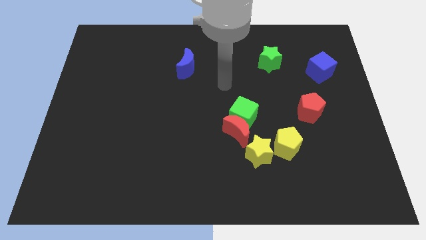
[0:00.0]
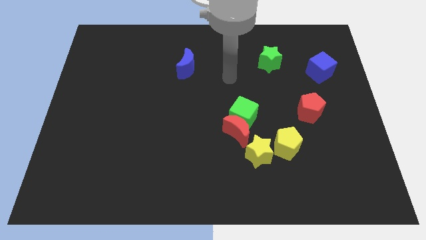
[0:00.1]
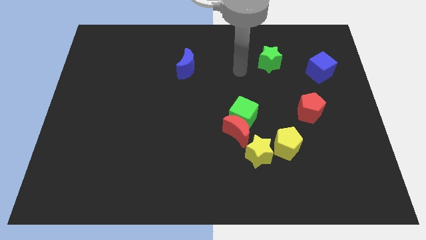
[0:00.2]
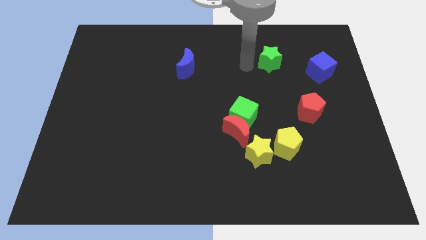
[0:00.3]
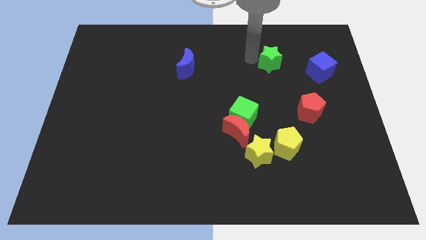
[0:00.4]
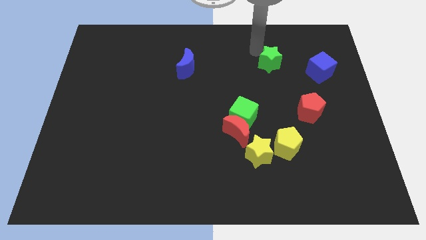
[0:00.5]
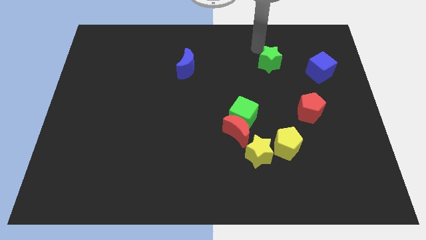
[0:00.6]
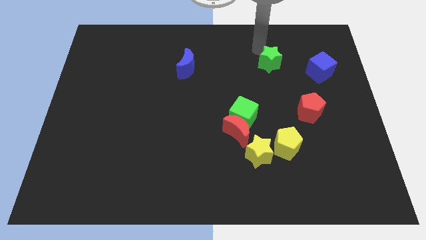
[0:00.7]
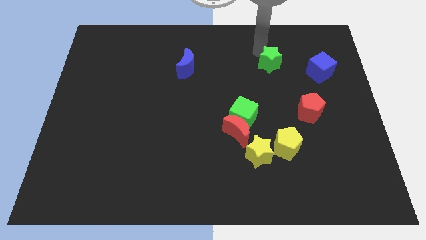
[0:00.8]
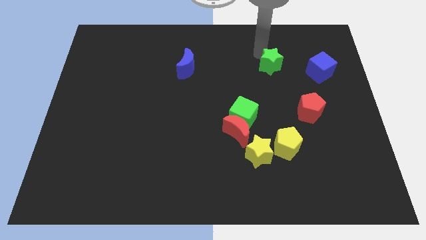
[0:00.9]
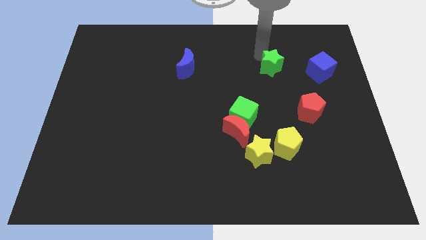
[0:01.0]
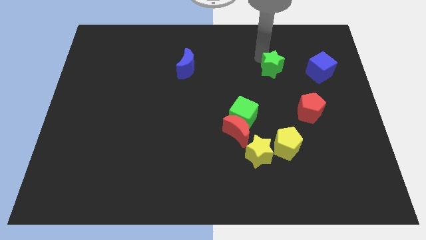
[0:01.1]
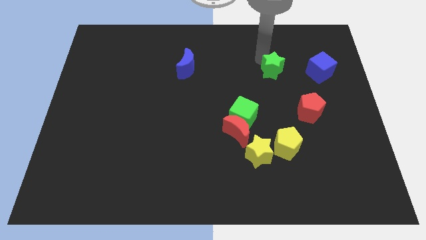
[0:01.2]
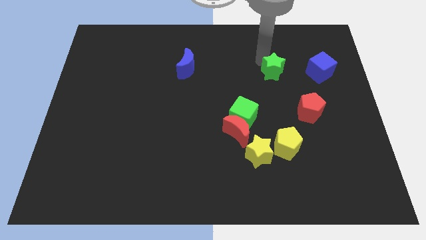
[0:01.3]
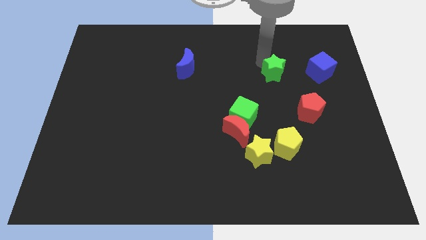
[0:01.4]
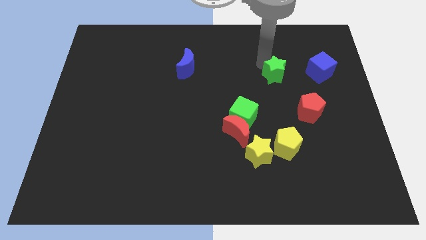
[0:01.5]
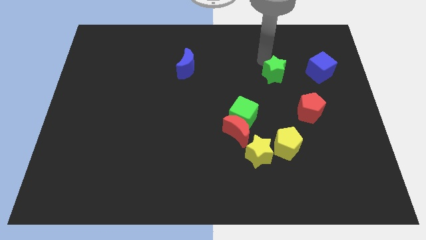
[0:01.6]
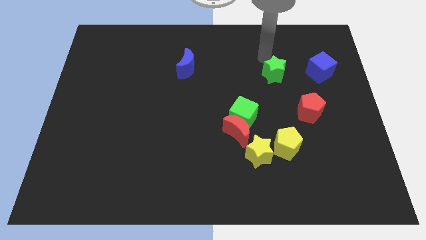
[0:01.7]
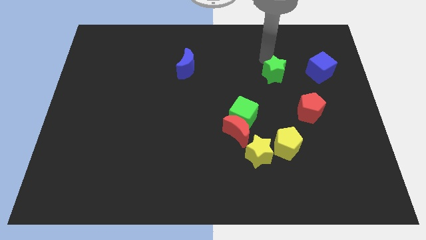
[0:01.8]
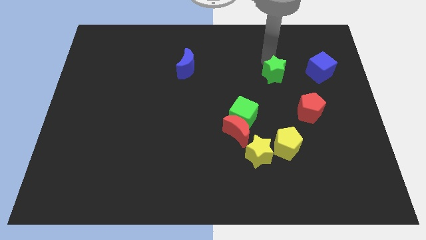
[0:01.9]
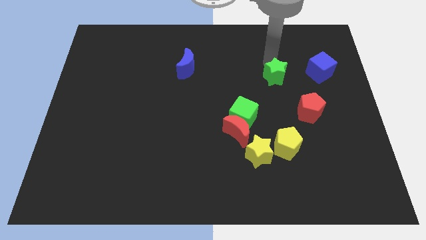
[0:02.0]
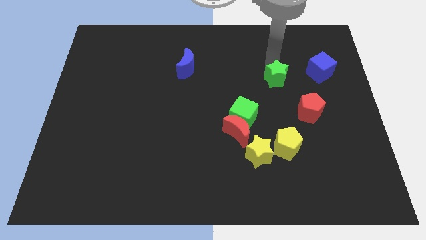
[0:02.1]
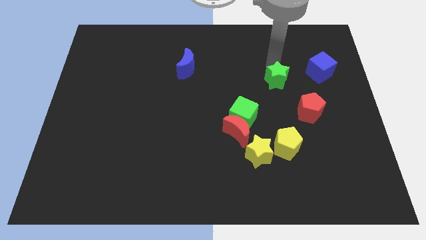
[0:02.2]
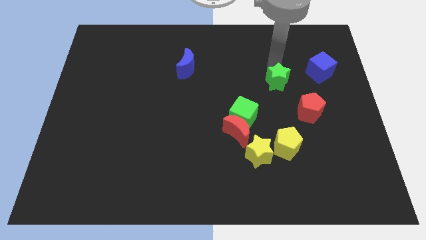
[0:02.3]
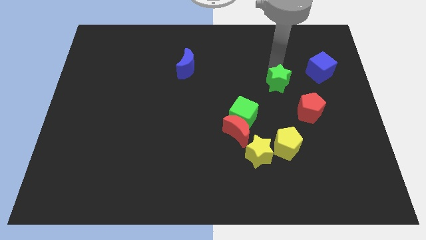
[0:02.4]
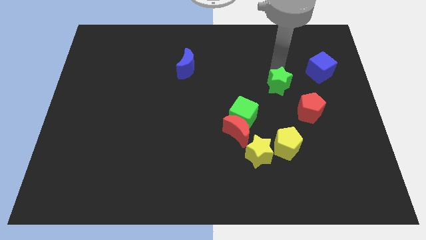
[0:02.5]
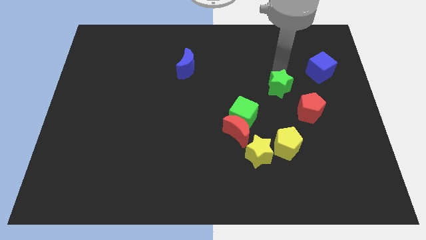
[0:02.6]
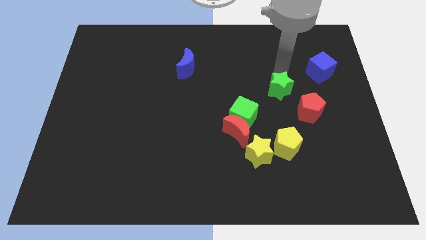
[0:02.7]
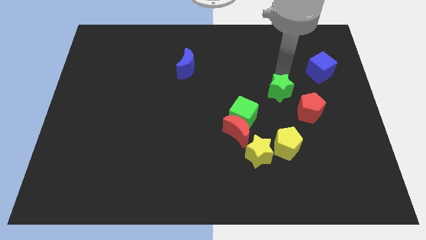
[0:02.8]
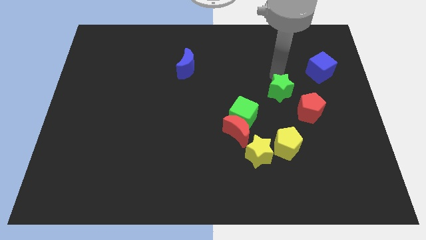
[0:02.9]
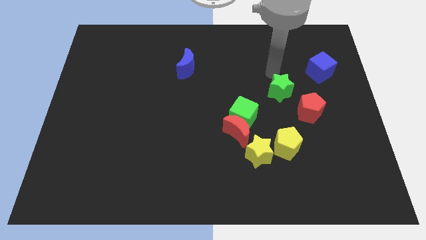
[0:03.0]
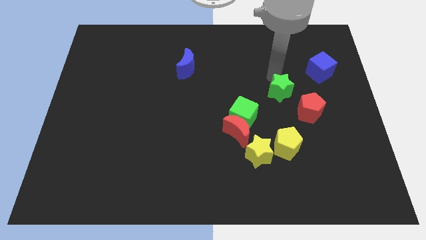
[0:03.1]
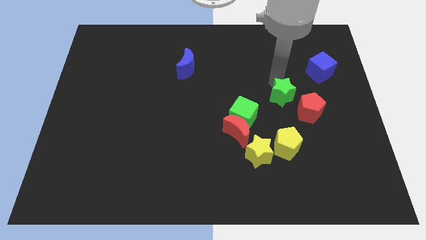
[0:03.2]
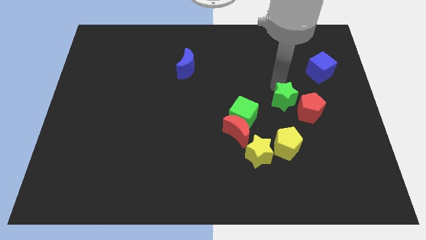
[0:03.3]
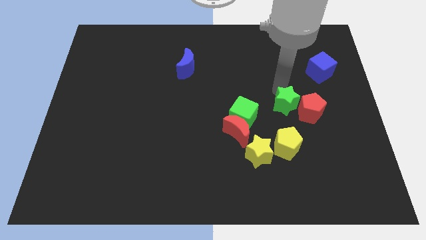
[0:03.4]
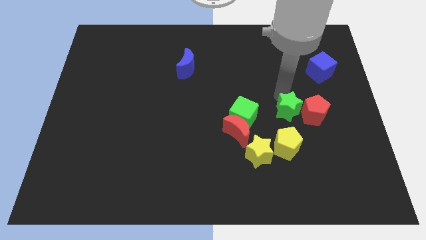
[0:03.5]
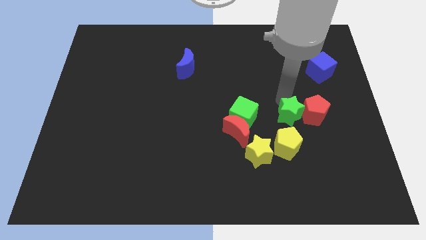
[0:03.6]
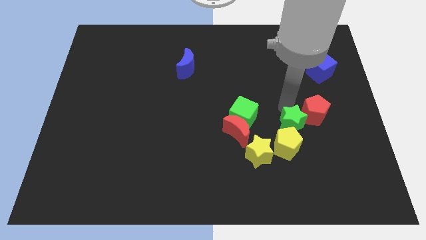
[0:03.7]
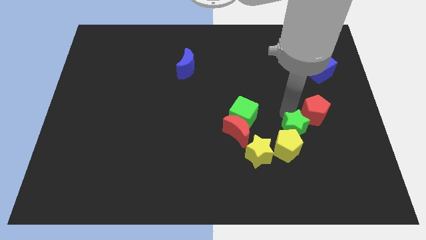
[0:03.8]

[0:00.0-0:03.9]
slide the green star down

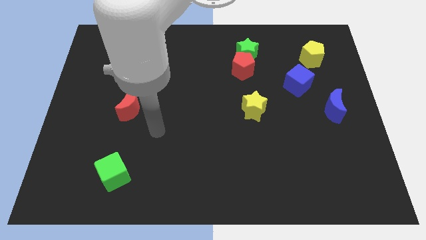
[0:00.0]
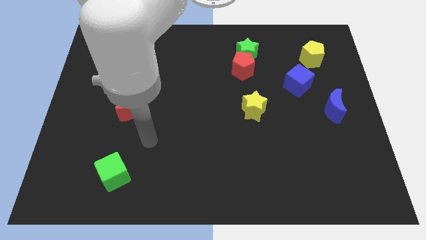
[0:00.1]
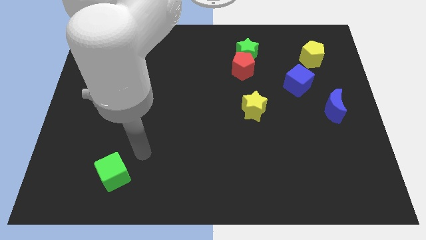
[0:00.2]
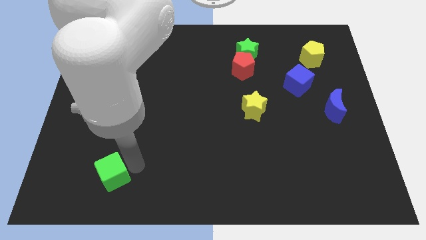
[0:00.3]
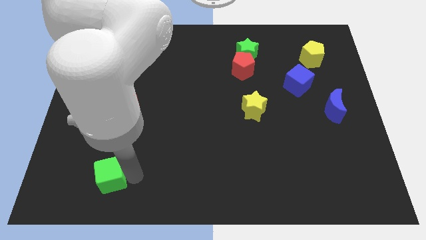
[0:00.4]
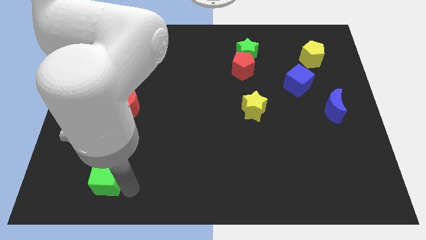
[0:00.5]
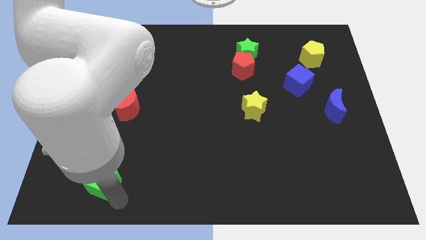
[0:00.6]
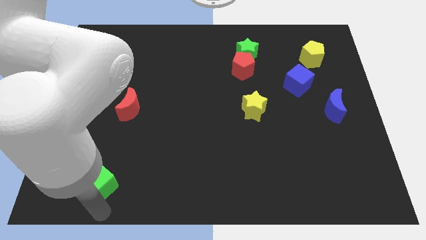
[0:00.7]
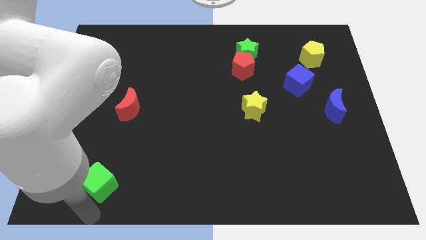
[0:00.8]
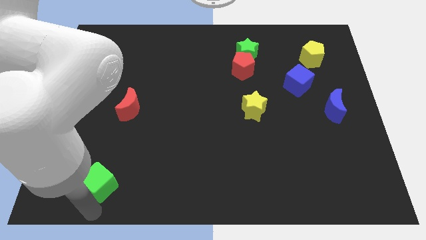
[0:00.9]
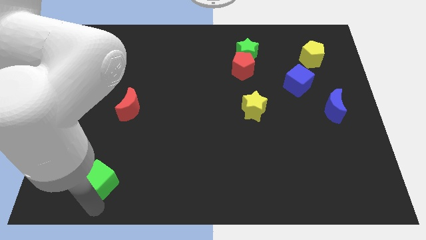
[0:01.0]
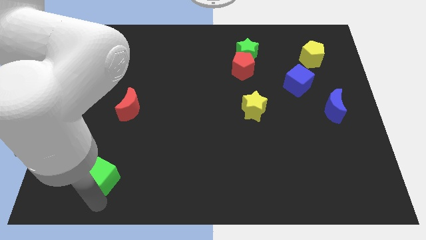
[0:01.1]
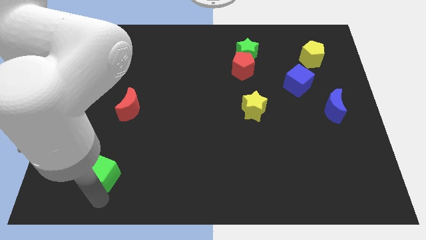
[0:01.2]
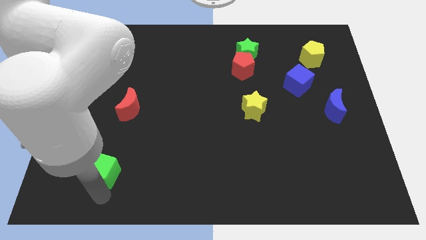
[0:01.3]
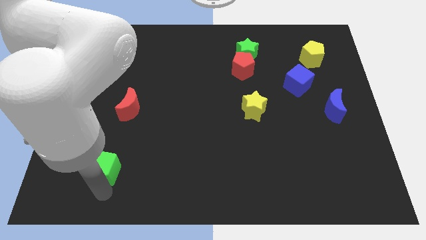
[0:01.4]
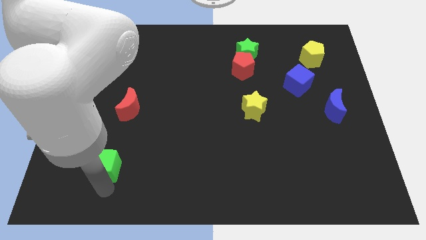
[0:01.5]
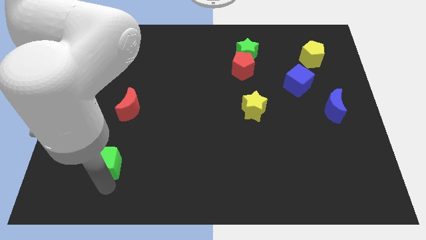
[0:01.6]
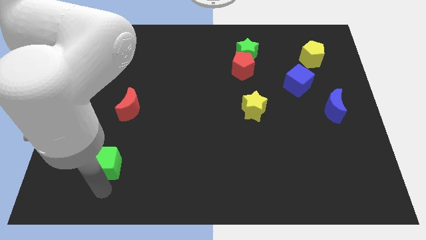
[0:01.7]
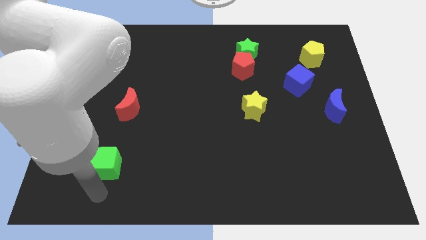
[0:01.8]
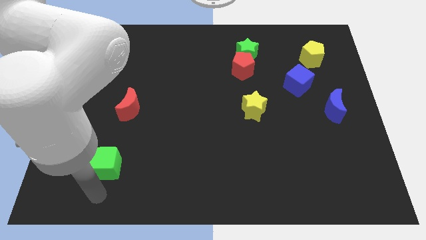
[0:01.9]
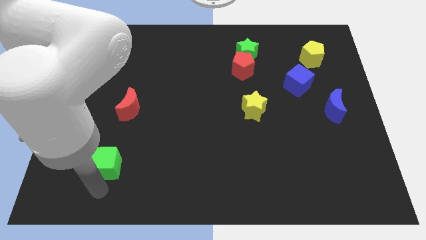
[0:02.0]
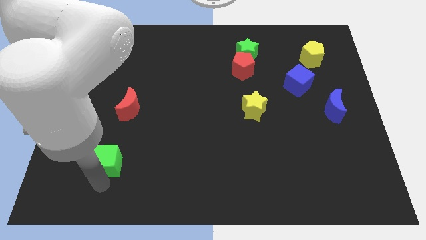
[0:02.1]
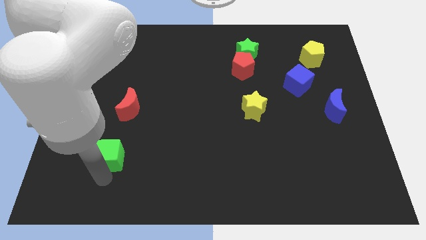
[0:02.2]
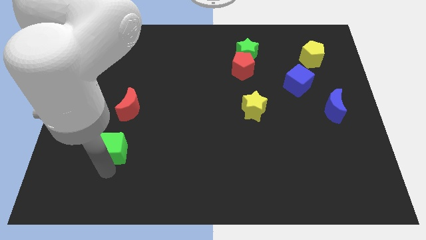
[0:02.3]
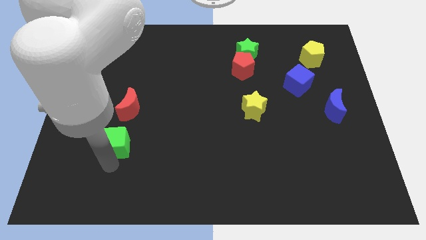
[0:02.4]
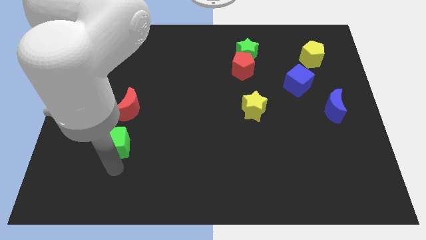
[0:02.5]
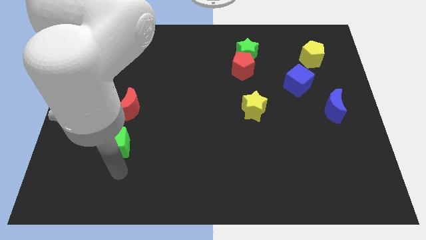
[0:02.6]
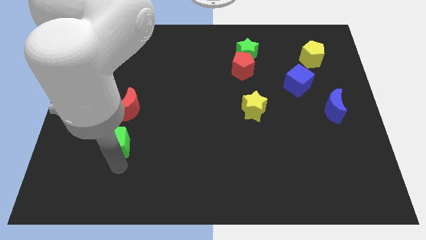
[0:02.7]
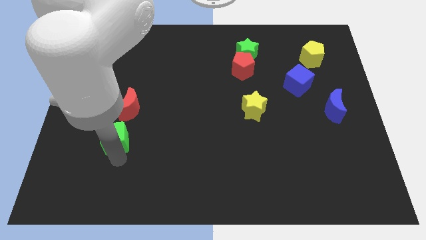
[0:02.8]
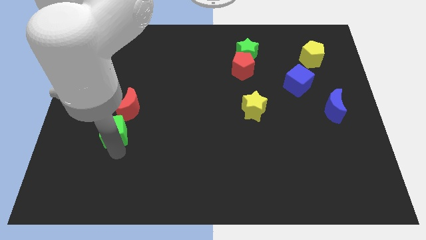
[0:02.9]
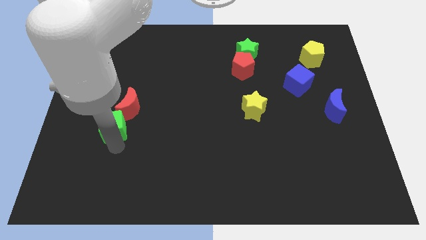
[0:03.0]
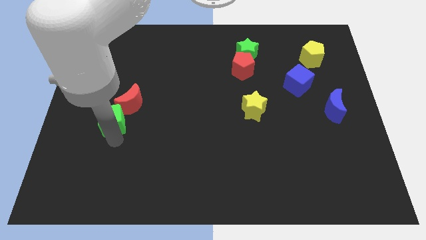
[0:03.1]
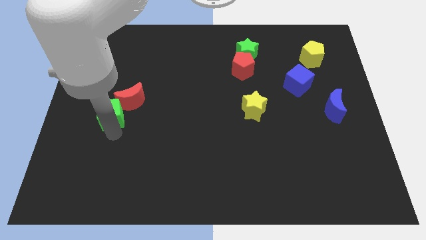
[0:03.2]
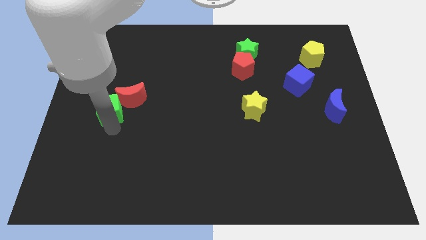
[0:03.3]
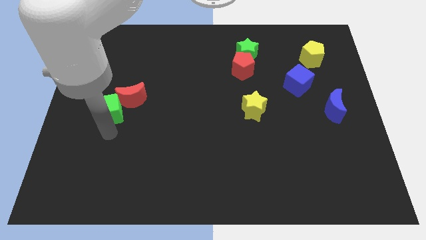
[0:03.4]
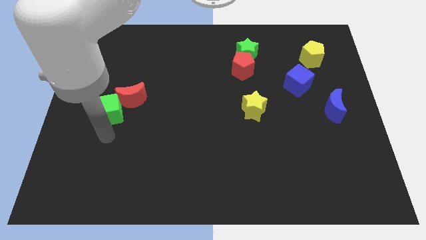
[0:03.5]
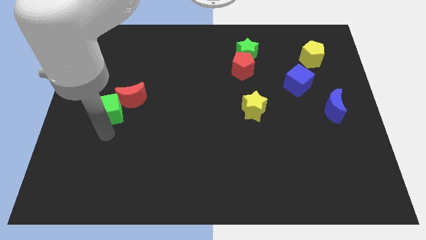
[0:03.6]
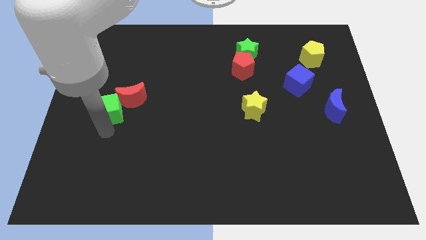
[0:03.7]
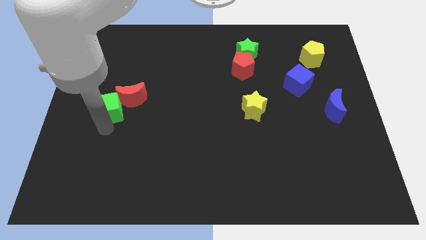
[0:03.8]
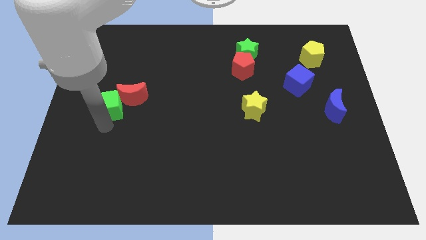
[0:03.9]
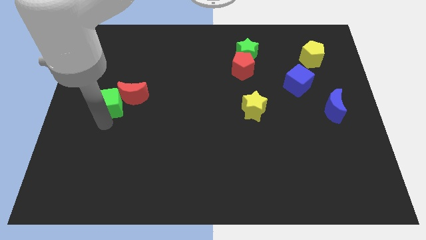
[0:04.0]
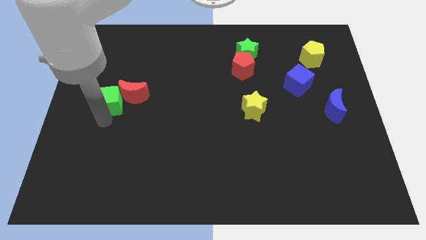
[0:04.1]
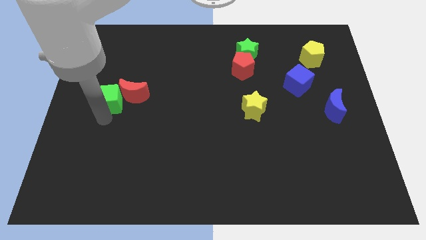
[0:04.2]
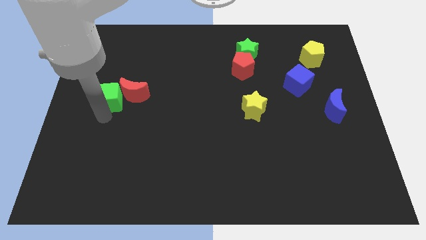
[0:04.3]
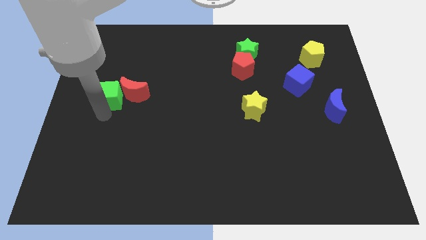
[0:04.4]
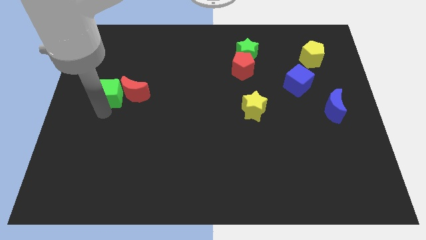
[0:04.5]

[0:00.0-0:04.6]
push the green cube upwards
